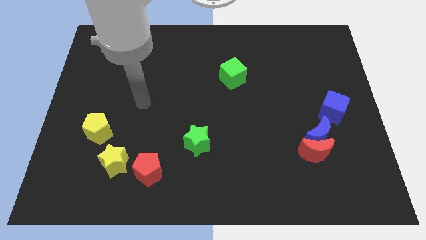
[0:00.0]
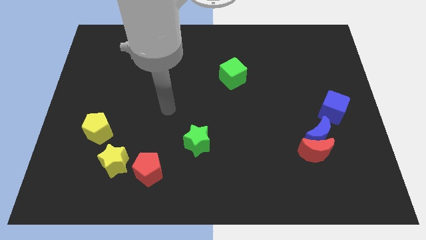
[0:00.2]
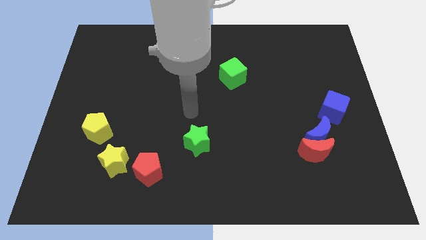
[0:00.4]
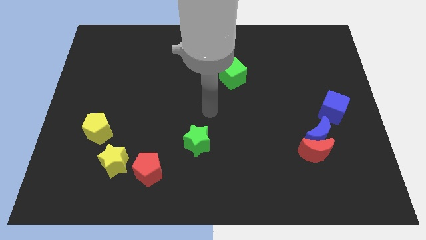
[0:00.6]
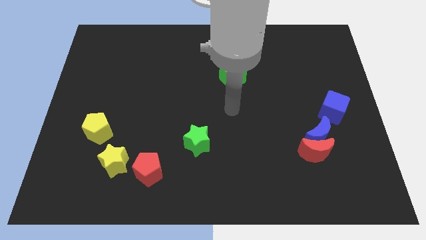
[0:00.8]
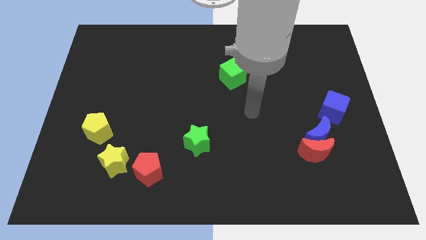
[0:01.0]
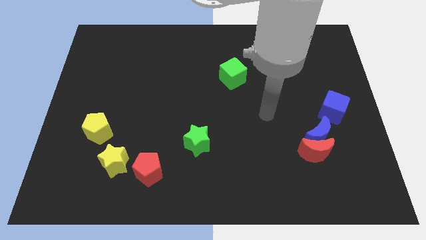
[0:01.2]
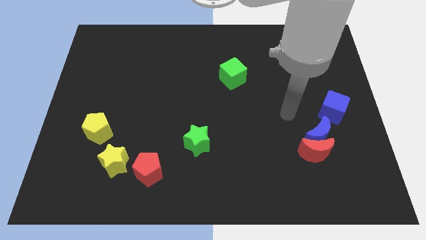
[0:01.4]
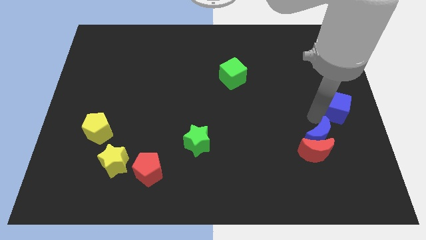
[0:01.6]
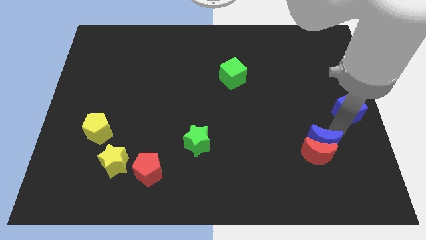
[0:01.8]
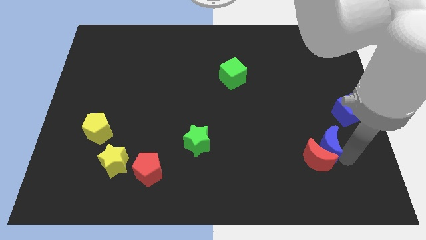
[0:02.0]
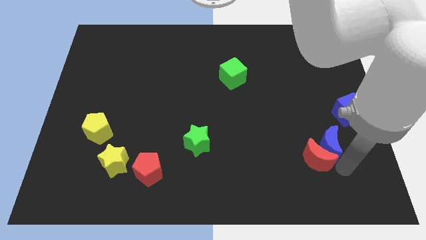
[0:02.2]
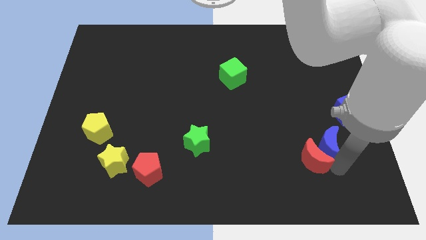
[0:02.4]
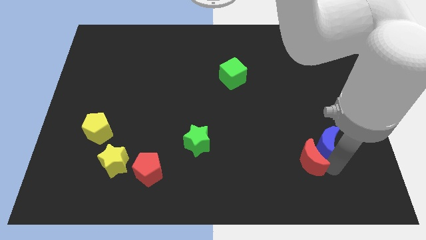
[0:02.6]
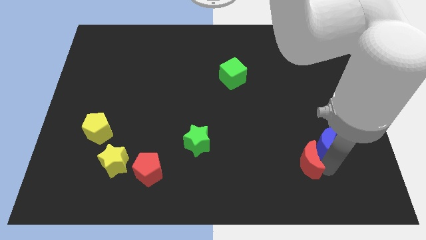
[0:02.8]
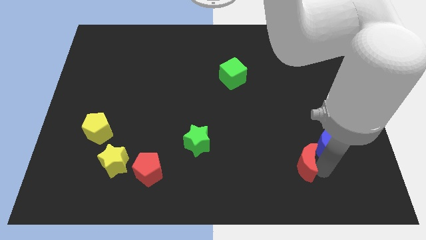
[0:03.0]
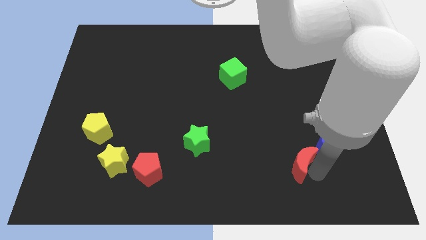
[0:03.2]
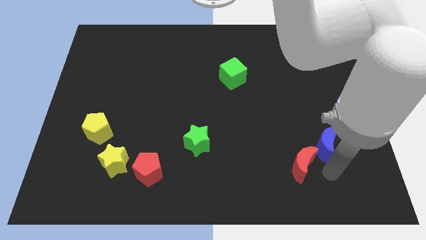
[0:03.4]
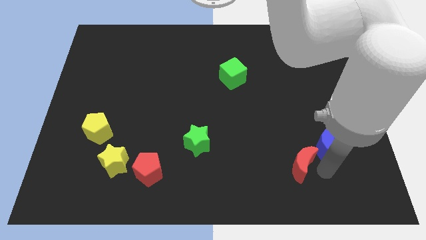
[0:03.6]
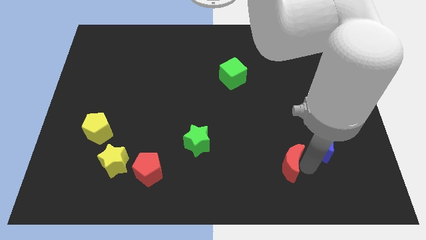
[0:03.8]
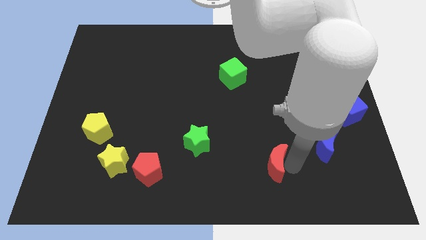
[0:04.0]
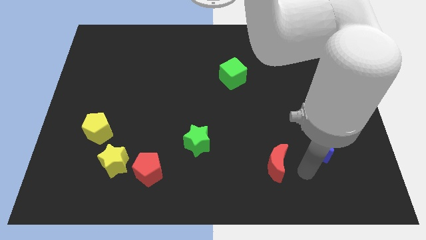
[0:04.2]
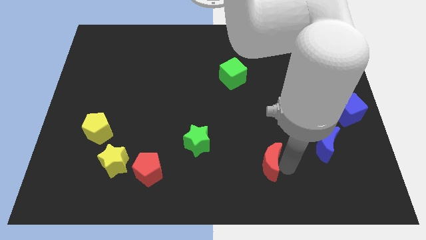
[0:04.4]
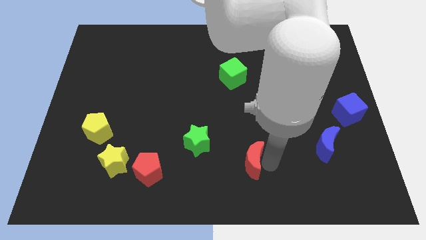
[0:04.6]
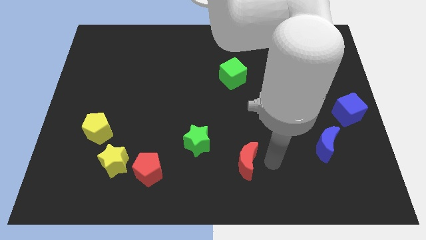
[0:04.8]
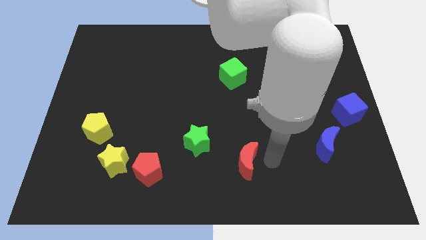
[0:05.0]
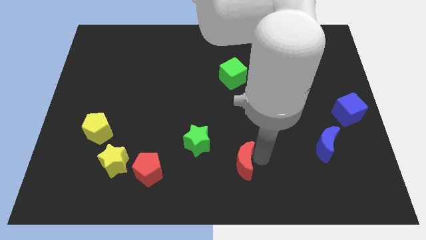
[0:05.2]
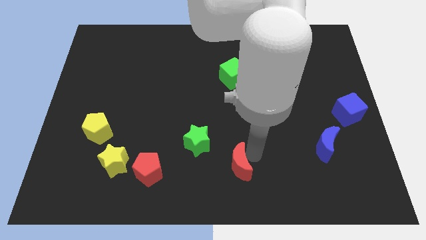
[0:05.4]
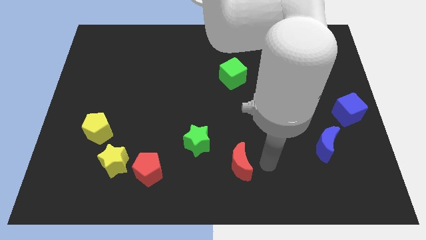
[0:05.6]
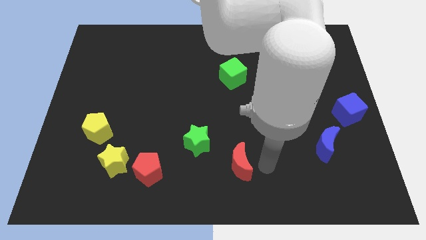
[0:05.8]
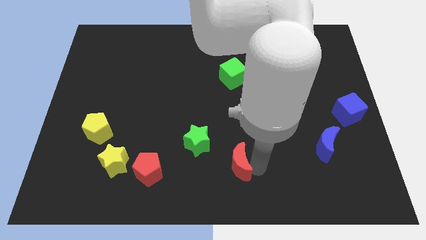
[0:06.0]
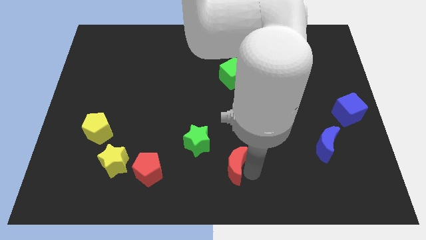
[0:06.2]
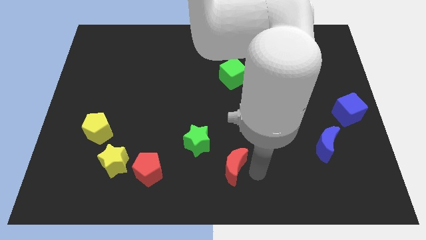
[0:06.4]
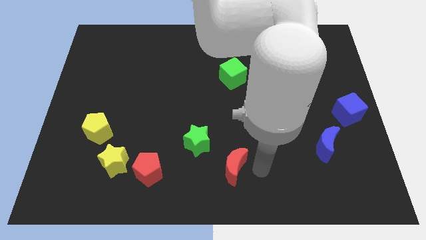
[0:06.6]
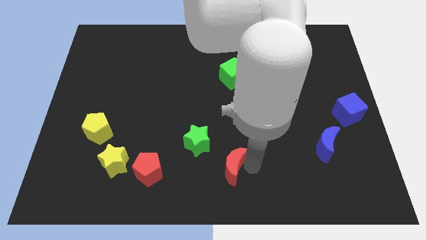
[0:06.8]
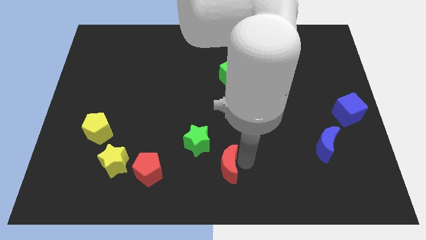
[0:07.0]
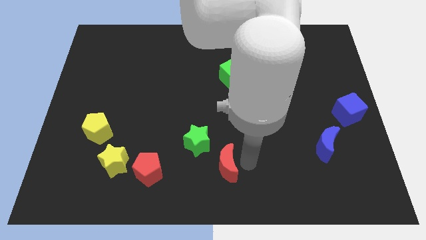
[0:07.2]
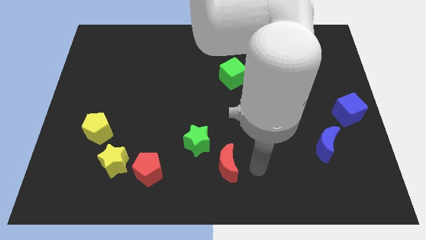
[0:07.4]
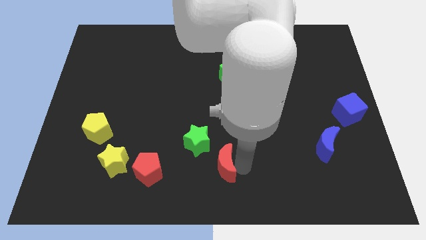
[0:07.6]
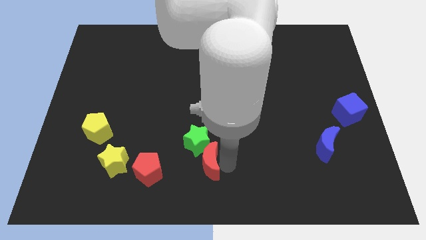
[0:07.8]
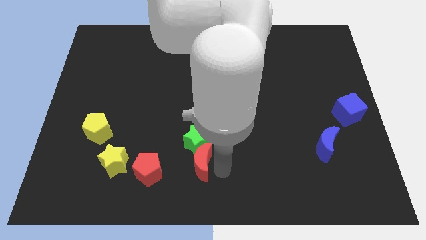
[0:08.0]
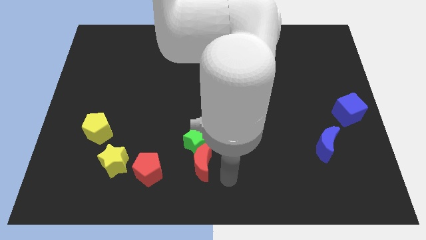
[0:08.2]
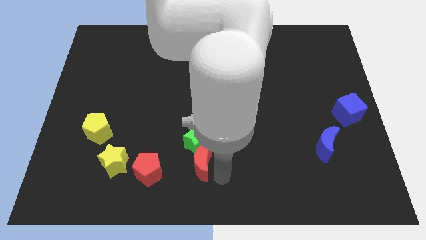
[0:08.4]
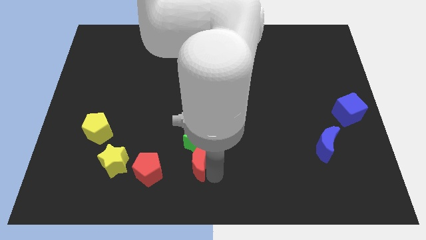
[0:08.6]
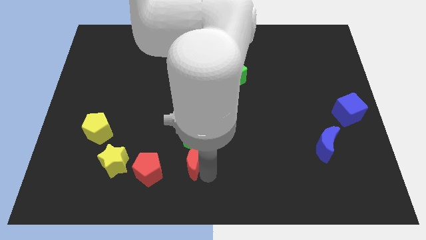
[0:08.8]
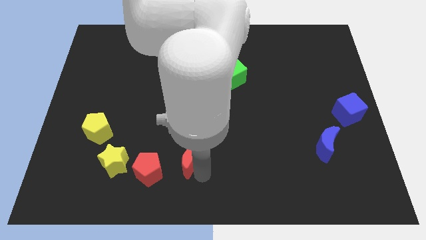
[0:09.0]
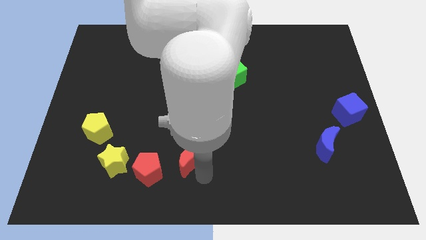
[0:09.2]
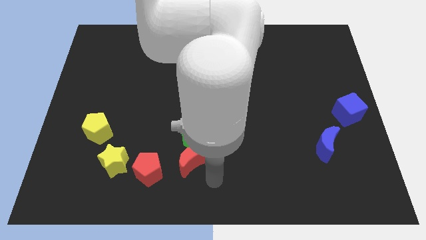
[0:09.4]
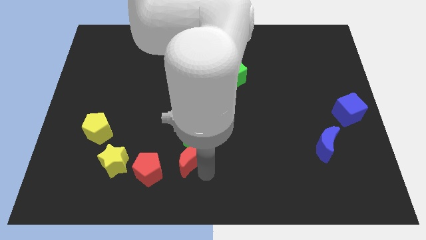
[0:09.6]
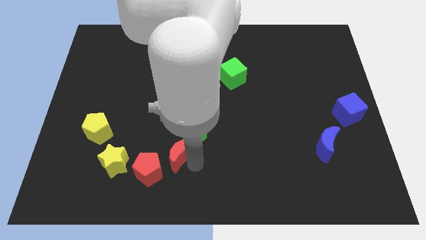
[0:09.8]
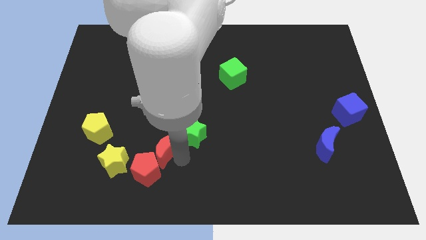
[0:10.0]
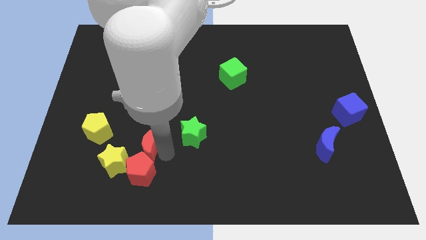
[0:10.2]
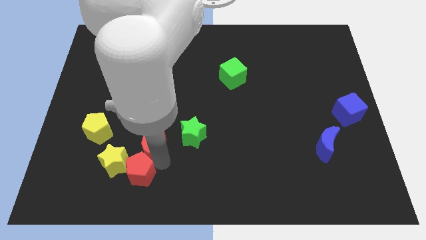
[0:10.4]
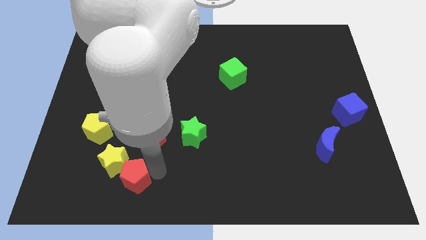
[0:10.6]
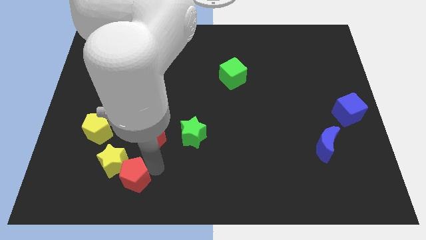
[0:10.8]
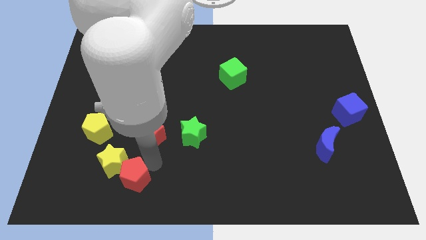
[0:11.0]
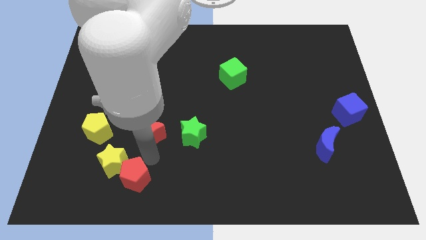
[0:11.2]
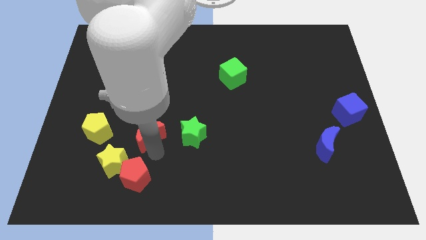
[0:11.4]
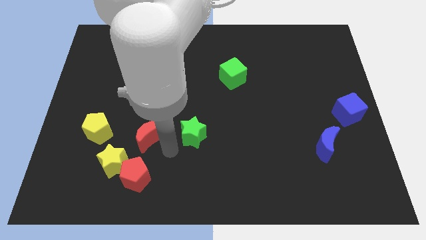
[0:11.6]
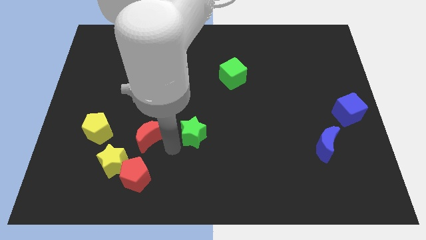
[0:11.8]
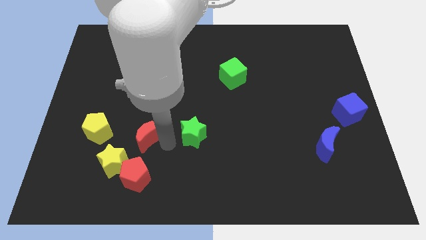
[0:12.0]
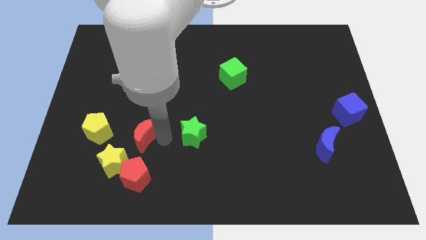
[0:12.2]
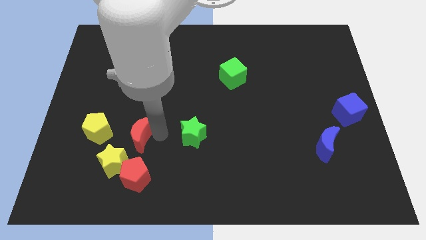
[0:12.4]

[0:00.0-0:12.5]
push the red moon above the yellow star
